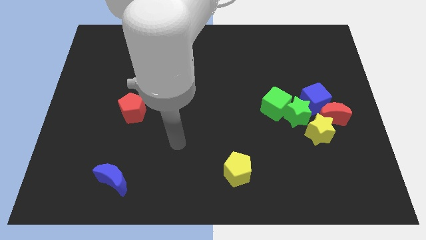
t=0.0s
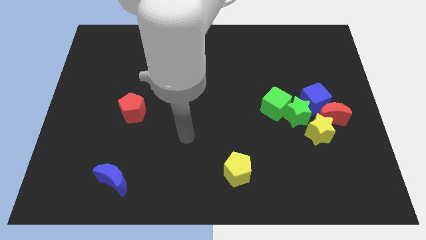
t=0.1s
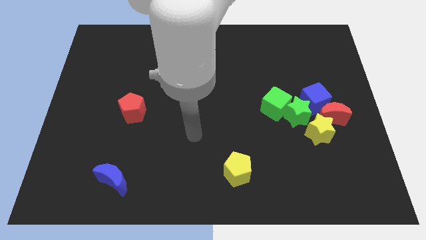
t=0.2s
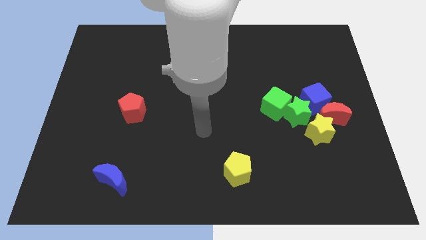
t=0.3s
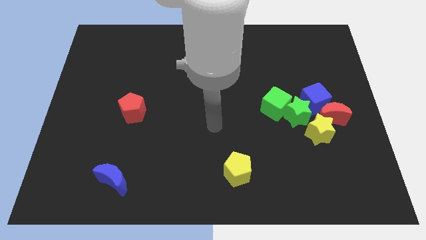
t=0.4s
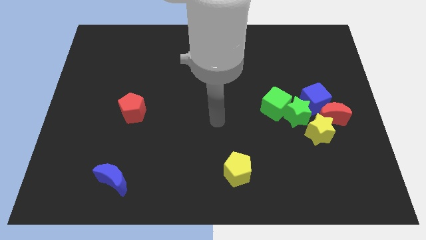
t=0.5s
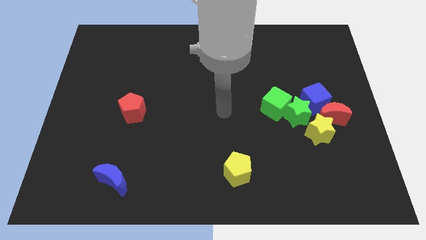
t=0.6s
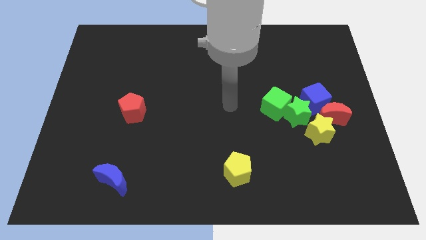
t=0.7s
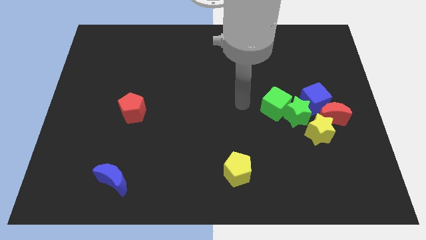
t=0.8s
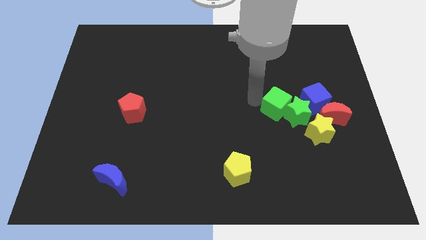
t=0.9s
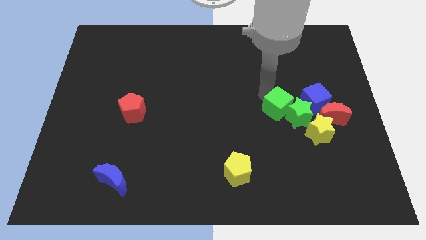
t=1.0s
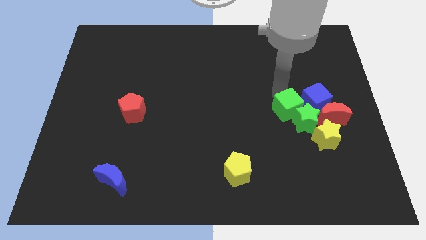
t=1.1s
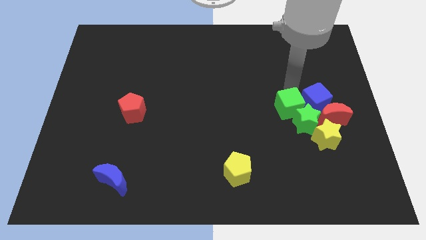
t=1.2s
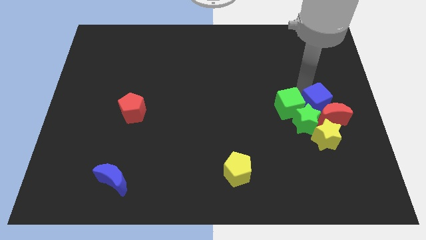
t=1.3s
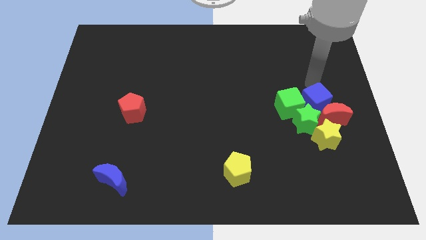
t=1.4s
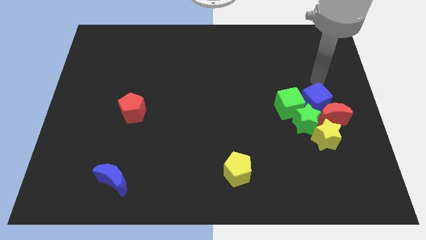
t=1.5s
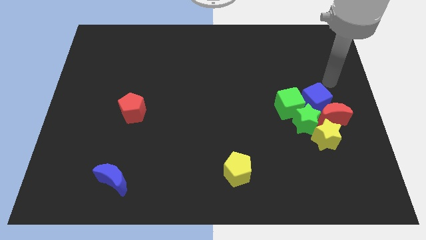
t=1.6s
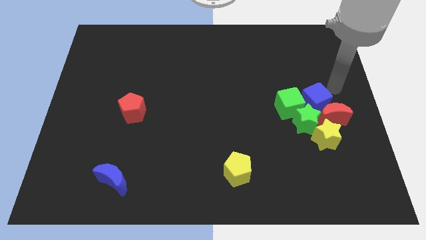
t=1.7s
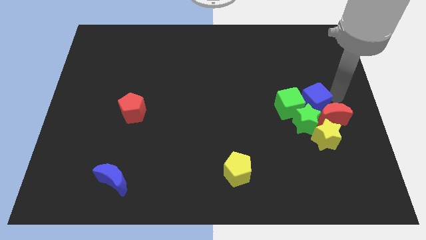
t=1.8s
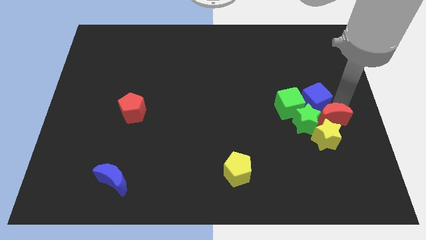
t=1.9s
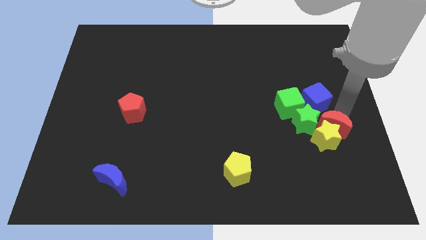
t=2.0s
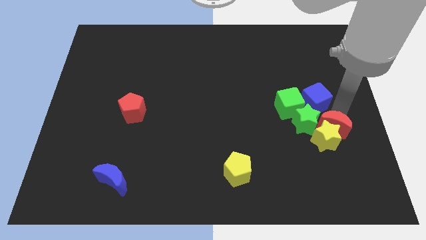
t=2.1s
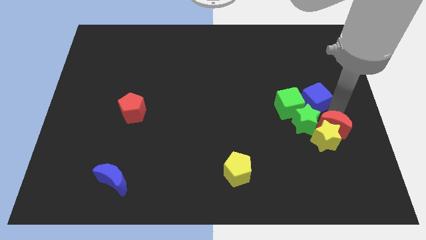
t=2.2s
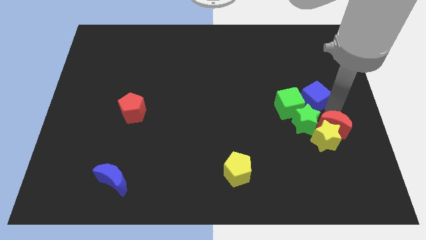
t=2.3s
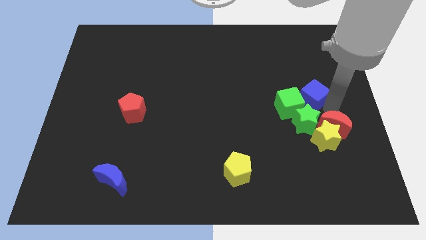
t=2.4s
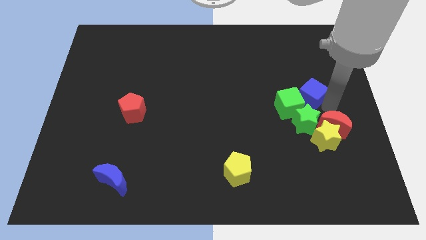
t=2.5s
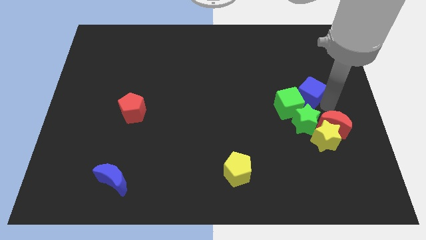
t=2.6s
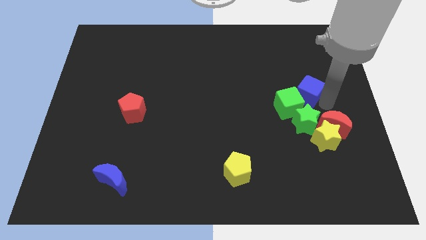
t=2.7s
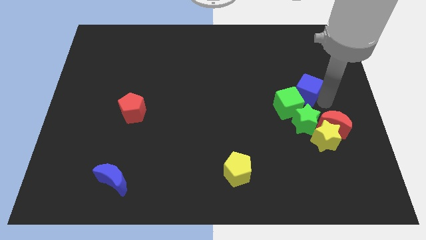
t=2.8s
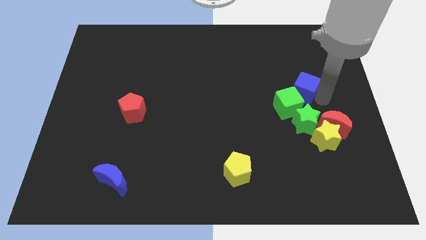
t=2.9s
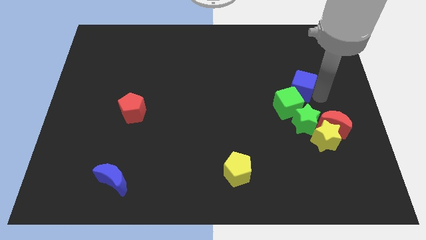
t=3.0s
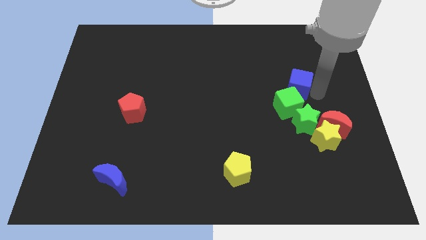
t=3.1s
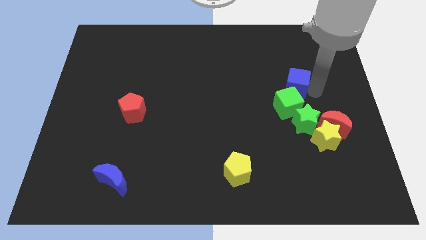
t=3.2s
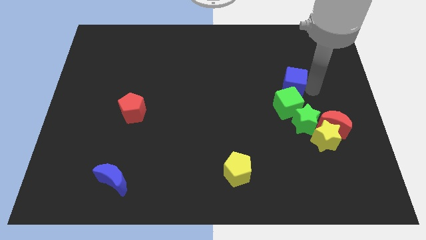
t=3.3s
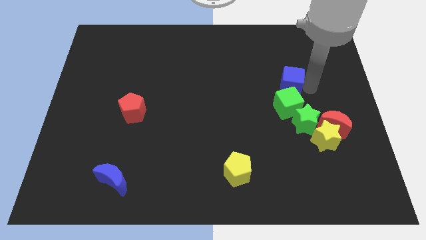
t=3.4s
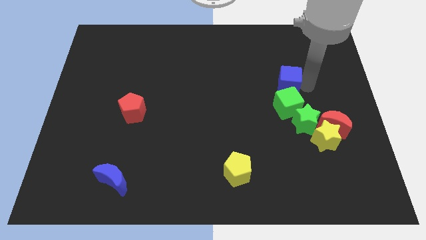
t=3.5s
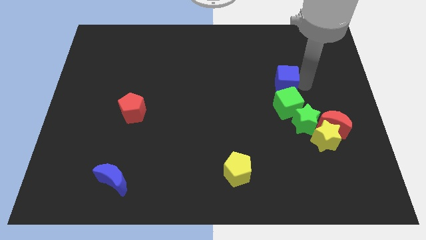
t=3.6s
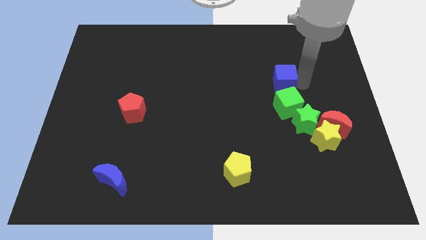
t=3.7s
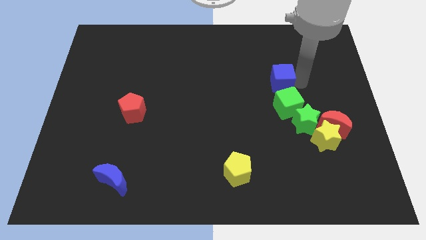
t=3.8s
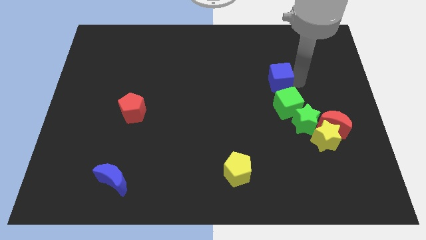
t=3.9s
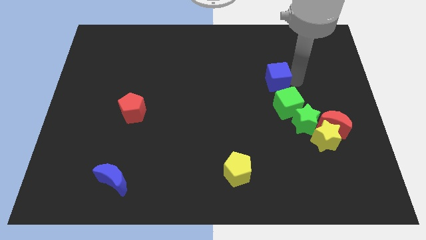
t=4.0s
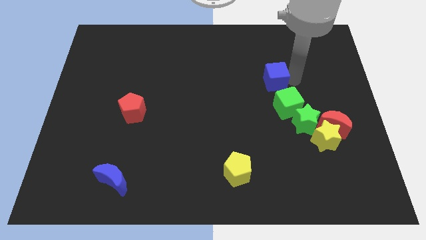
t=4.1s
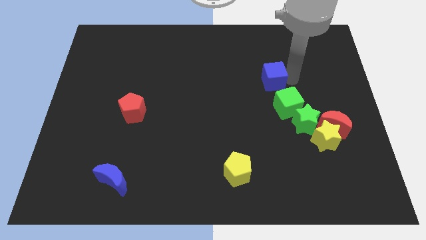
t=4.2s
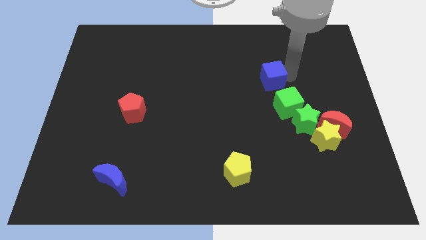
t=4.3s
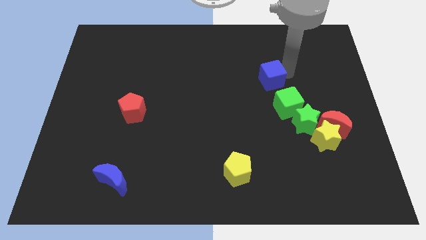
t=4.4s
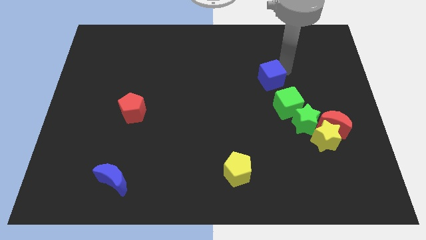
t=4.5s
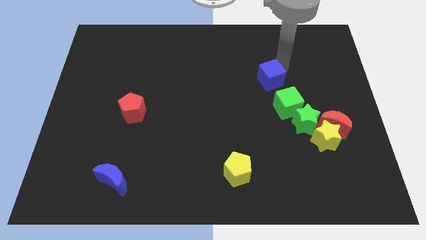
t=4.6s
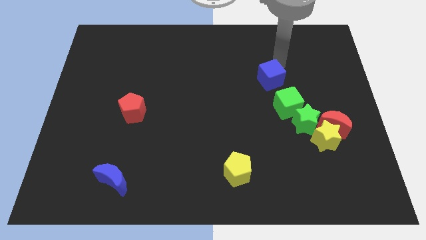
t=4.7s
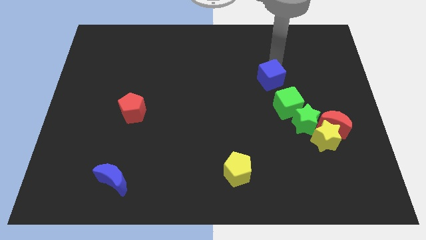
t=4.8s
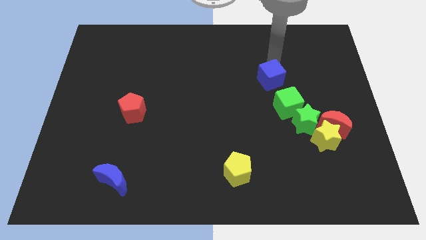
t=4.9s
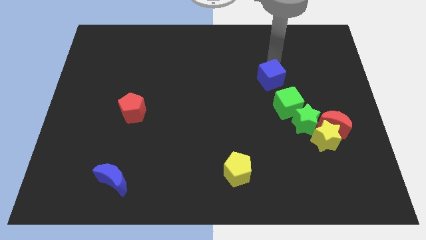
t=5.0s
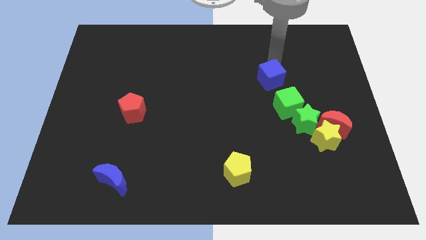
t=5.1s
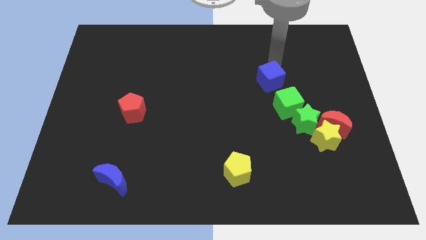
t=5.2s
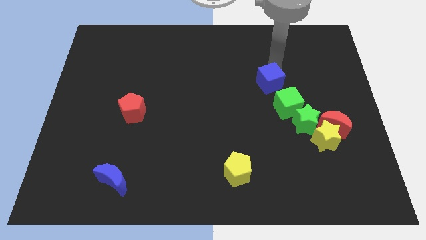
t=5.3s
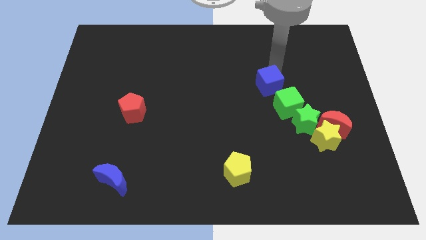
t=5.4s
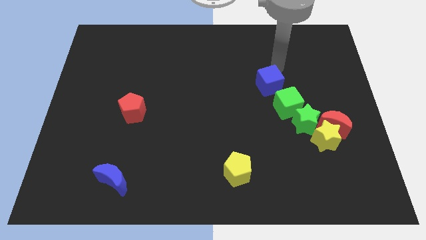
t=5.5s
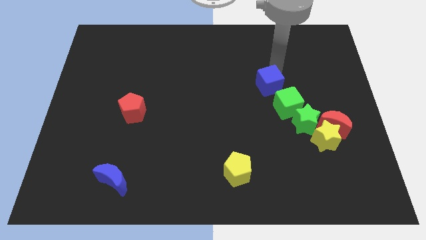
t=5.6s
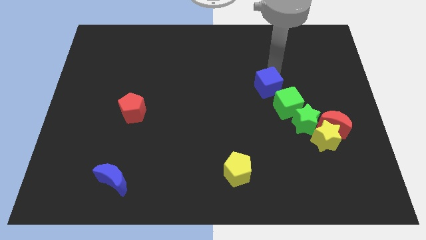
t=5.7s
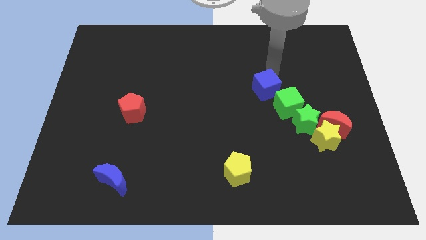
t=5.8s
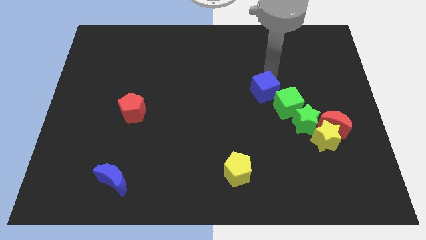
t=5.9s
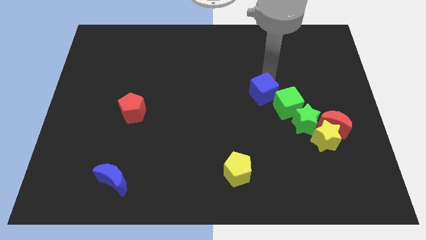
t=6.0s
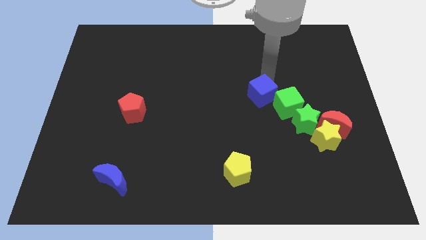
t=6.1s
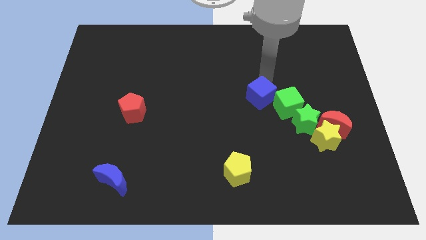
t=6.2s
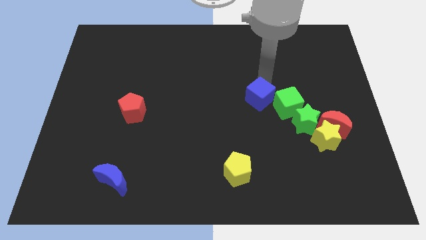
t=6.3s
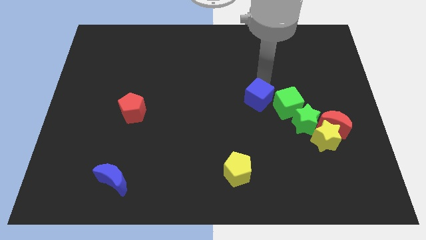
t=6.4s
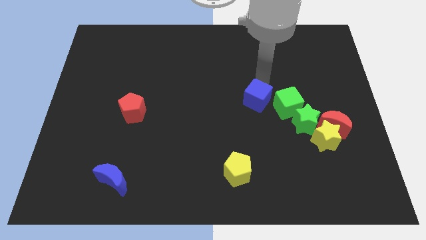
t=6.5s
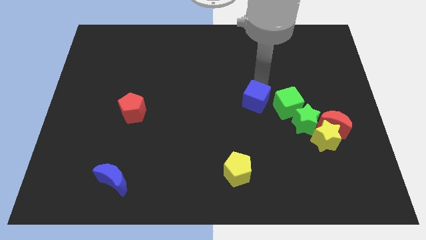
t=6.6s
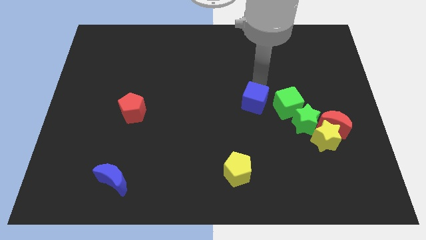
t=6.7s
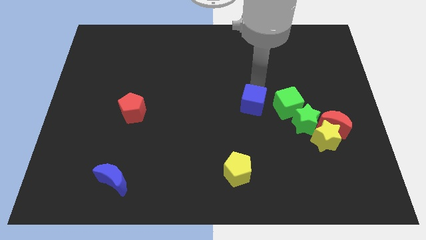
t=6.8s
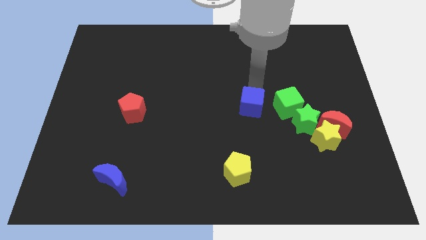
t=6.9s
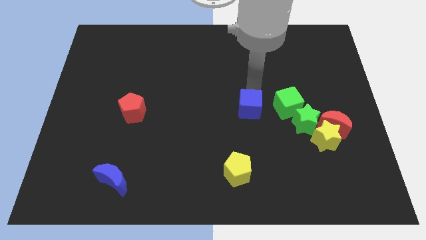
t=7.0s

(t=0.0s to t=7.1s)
move the blue cube downwards and then left somewhat

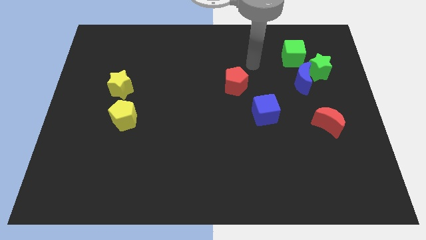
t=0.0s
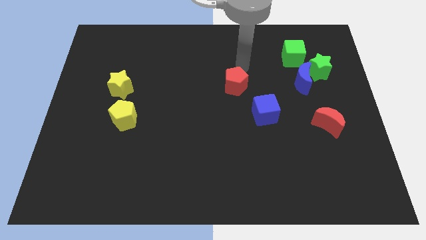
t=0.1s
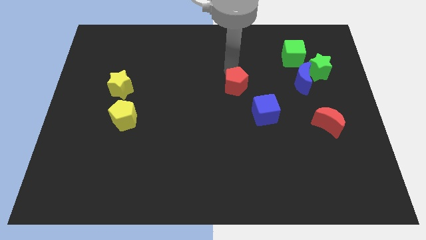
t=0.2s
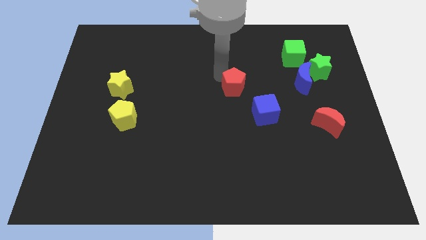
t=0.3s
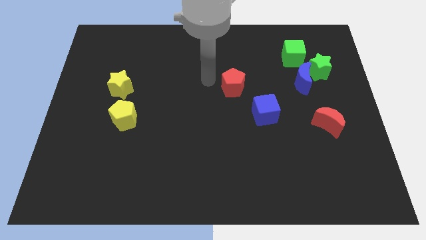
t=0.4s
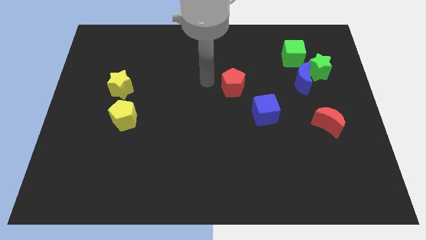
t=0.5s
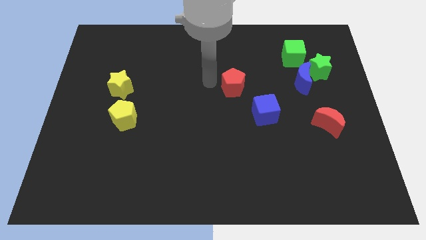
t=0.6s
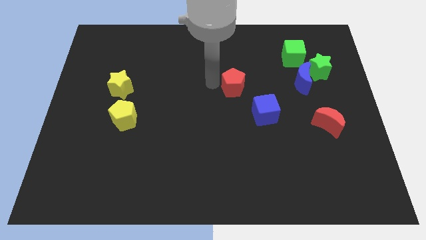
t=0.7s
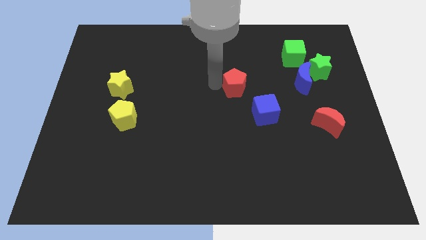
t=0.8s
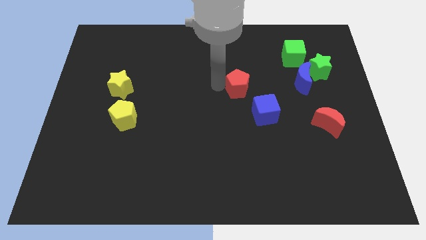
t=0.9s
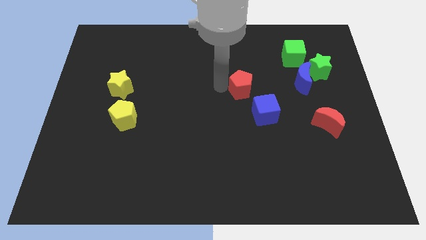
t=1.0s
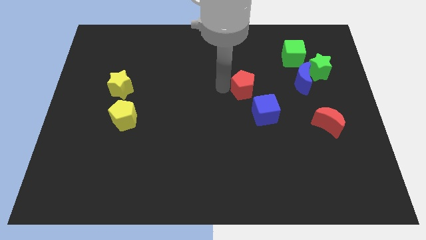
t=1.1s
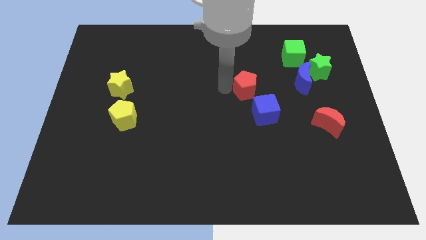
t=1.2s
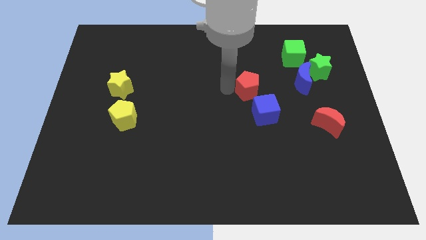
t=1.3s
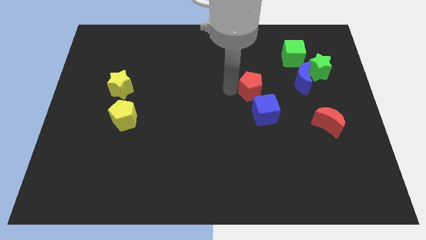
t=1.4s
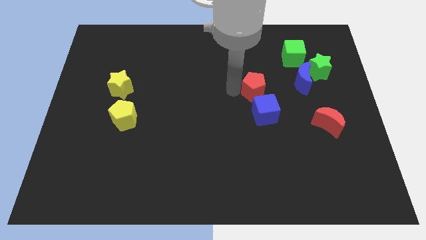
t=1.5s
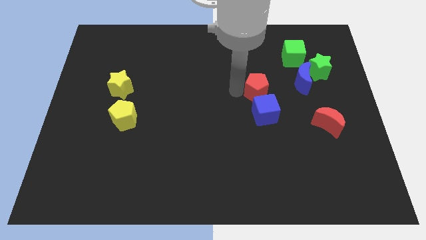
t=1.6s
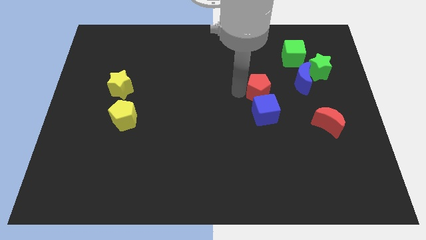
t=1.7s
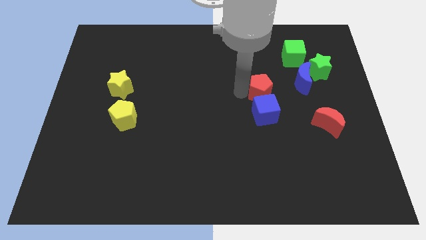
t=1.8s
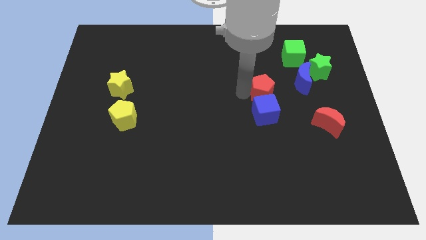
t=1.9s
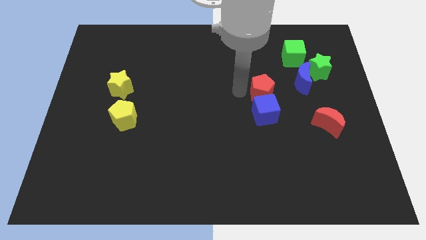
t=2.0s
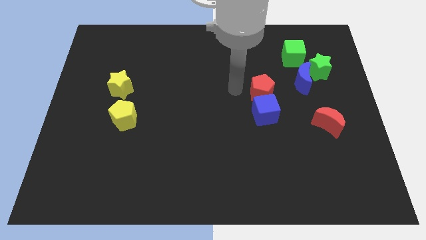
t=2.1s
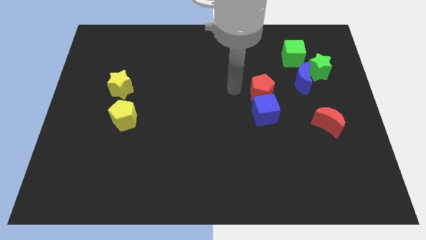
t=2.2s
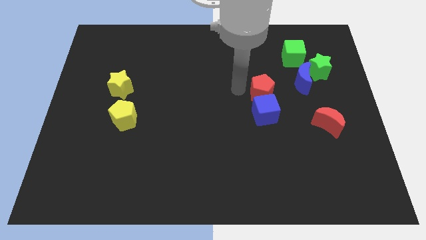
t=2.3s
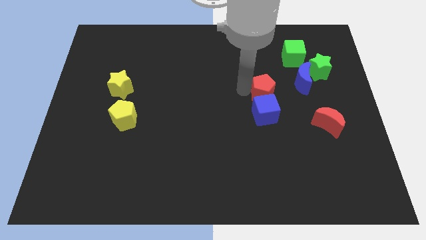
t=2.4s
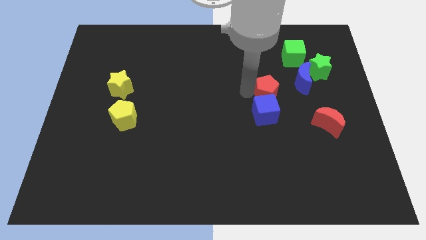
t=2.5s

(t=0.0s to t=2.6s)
push the red pentagon somewhat downwards and right diagonally
